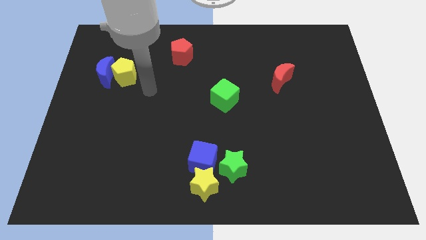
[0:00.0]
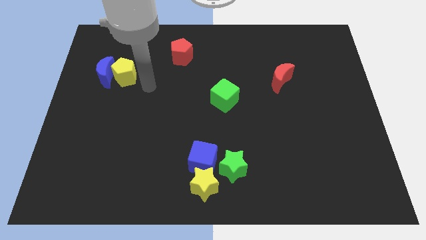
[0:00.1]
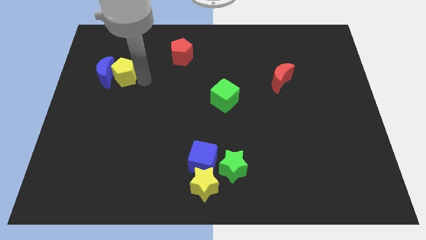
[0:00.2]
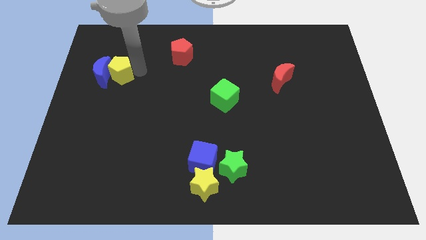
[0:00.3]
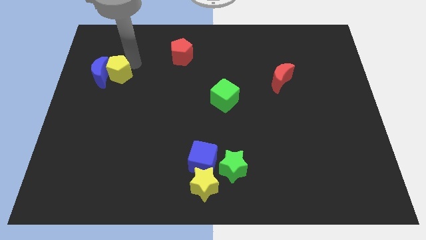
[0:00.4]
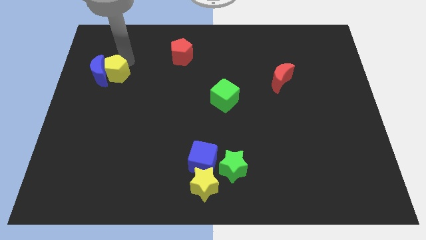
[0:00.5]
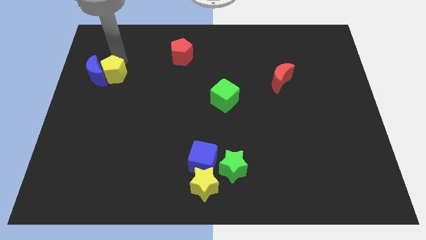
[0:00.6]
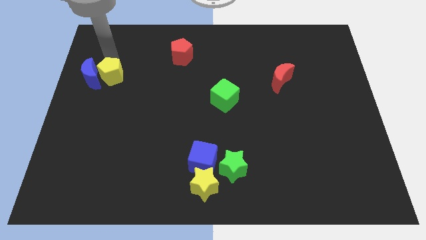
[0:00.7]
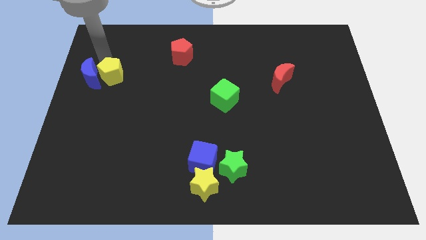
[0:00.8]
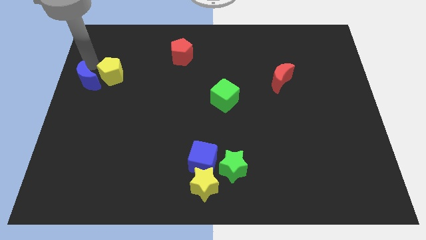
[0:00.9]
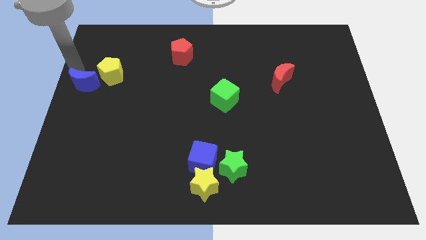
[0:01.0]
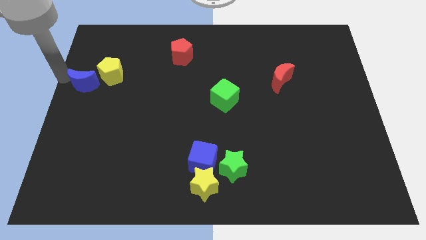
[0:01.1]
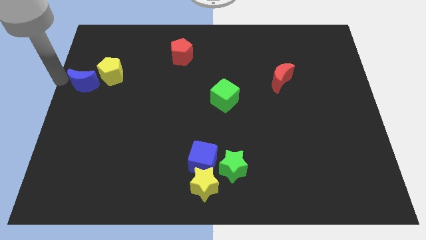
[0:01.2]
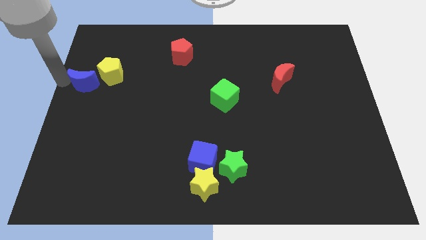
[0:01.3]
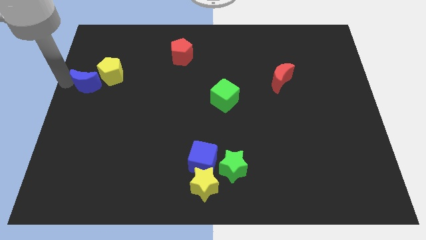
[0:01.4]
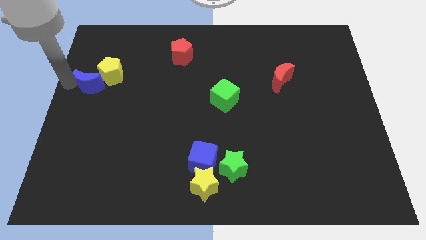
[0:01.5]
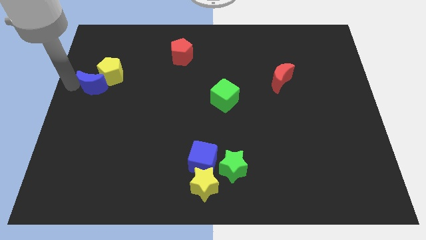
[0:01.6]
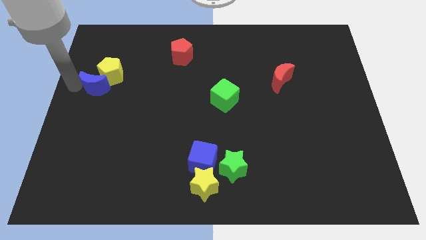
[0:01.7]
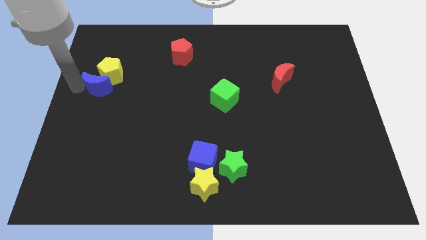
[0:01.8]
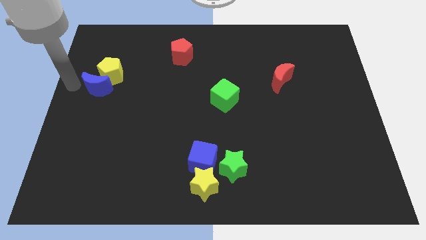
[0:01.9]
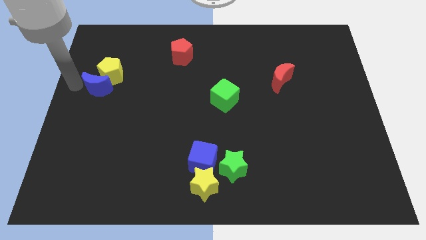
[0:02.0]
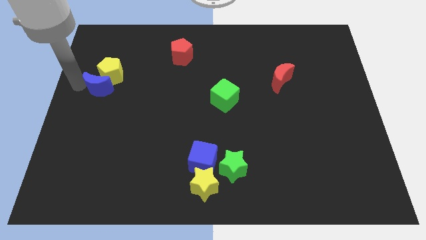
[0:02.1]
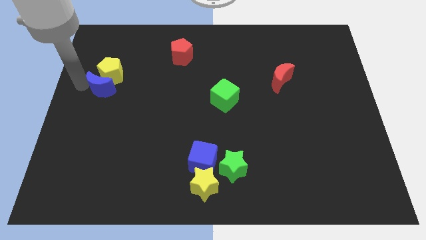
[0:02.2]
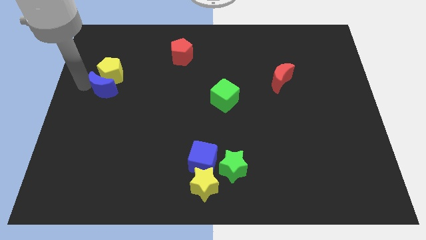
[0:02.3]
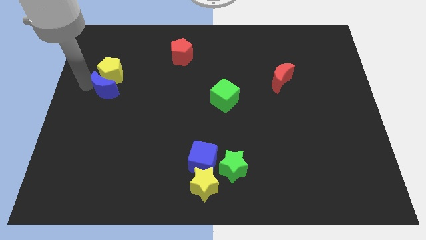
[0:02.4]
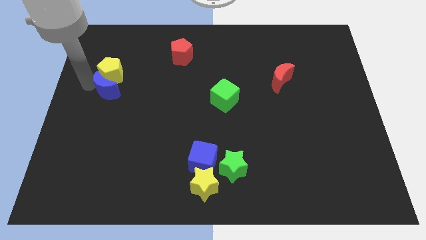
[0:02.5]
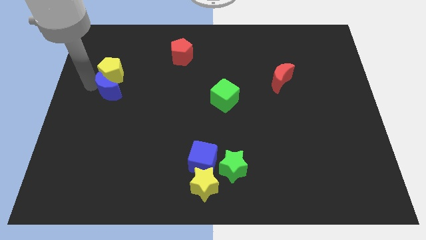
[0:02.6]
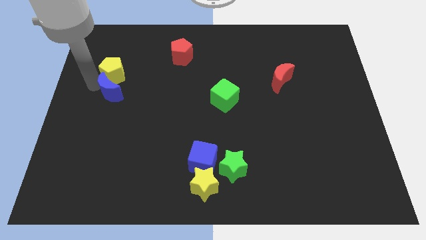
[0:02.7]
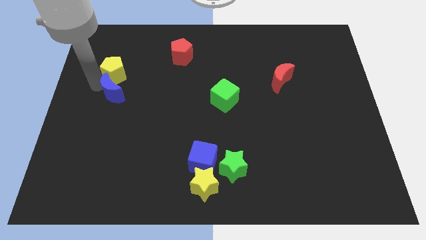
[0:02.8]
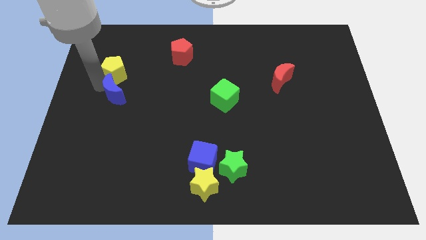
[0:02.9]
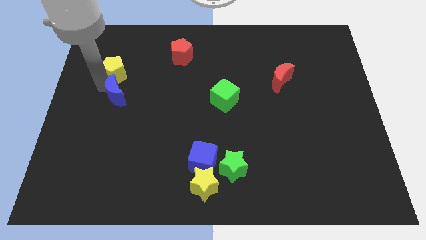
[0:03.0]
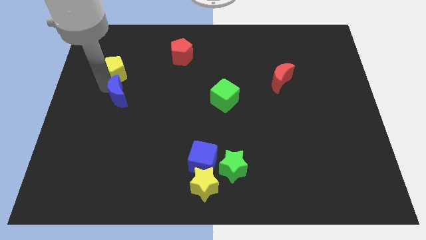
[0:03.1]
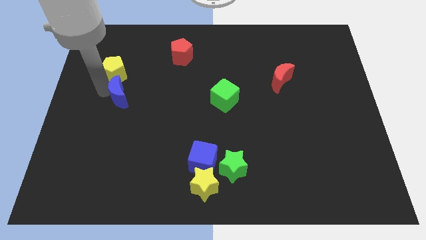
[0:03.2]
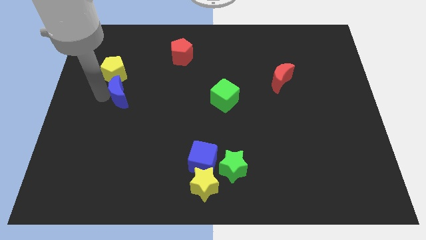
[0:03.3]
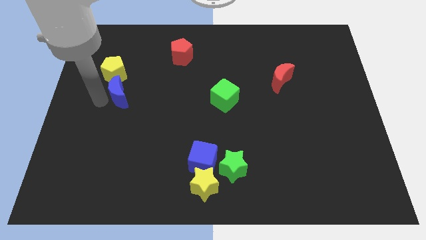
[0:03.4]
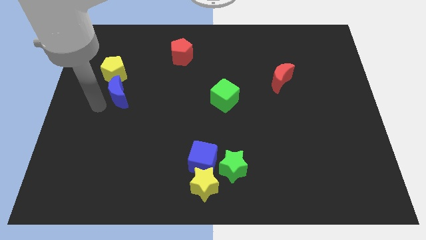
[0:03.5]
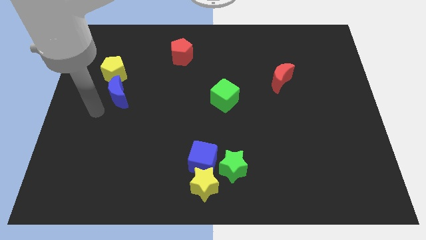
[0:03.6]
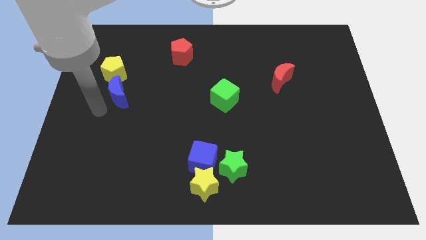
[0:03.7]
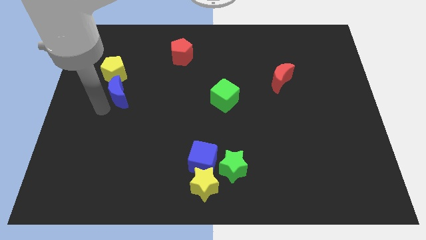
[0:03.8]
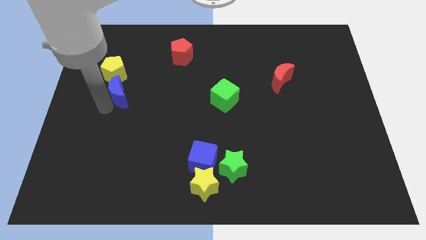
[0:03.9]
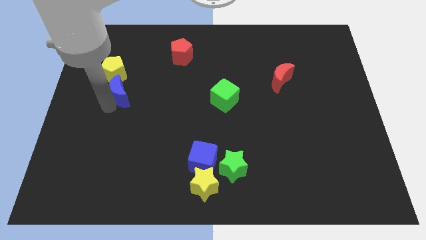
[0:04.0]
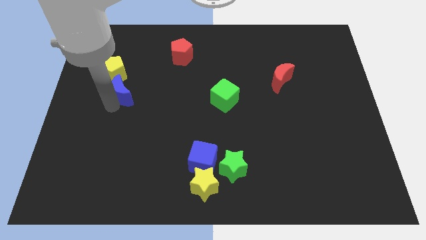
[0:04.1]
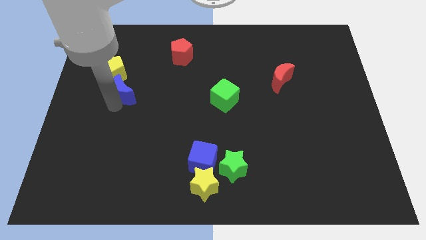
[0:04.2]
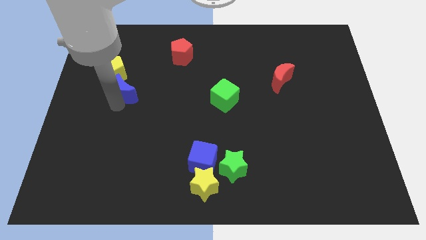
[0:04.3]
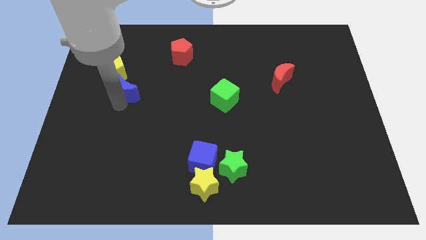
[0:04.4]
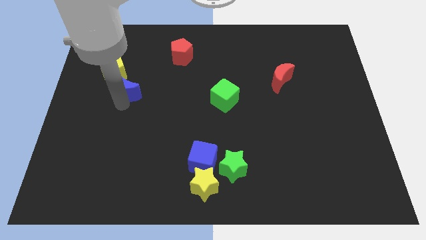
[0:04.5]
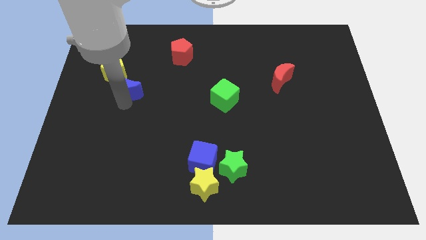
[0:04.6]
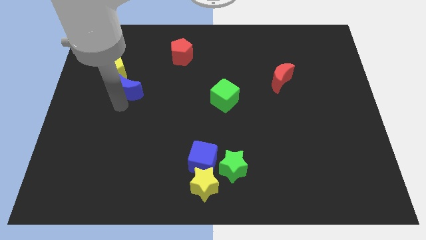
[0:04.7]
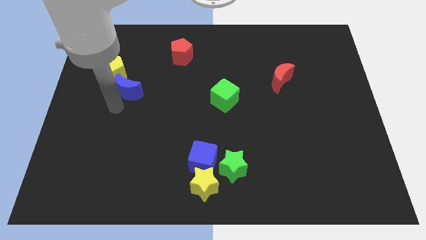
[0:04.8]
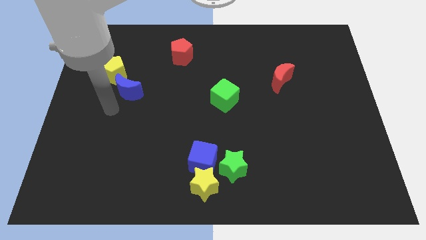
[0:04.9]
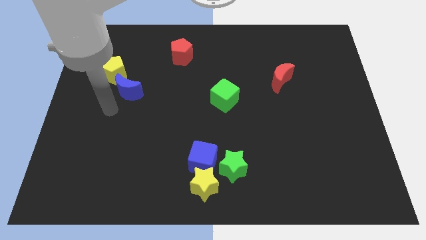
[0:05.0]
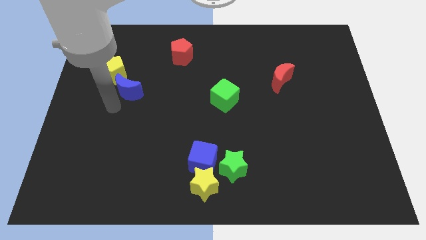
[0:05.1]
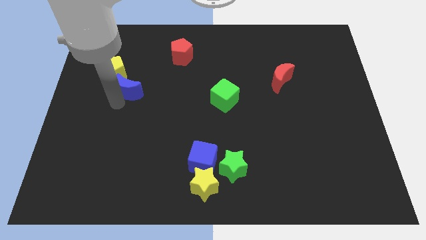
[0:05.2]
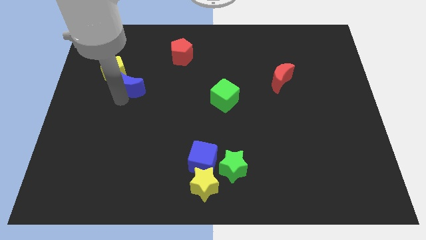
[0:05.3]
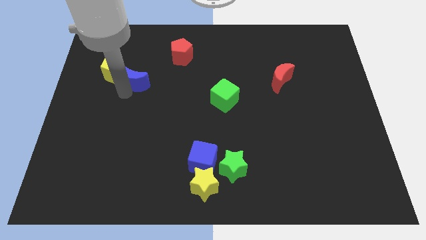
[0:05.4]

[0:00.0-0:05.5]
slightly move the blue moon right

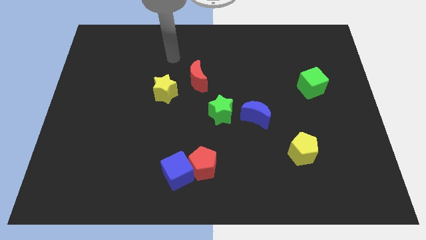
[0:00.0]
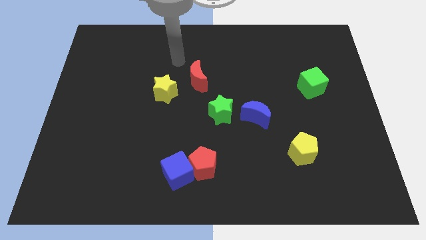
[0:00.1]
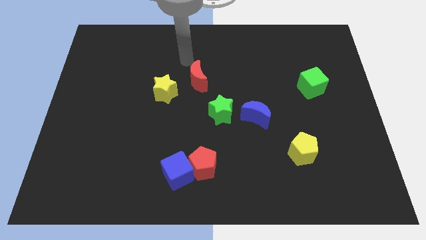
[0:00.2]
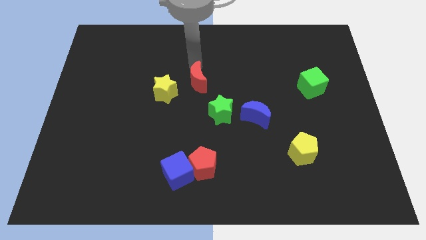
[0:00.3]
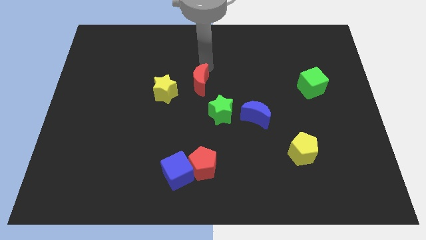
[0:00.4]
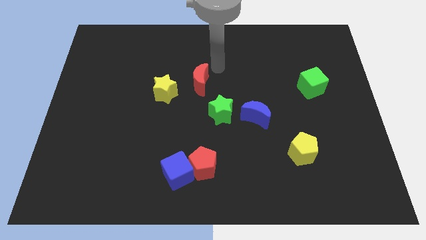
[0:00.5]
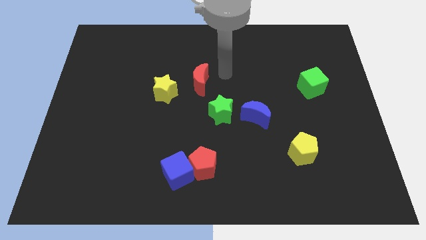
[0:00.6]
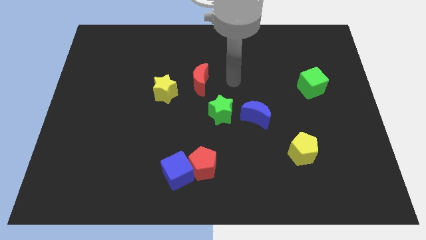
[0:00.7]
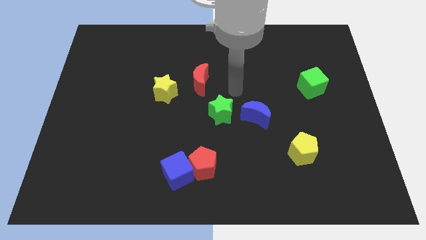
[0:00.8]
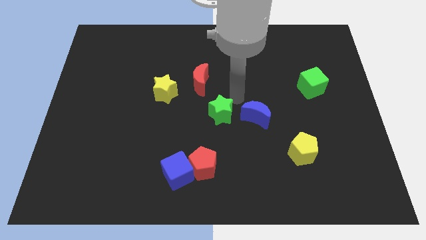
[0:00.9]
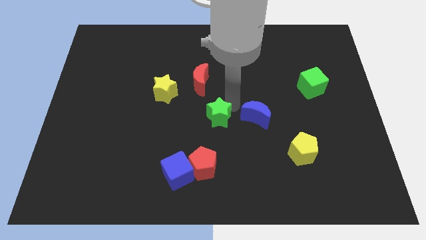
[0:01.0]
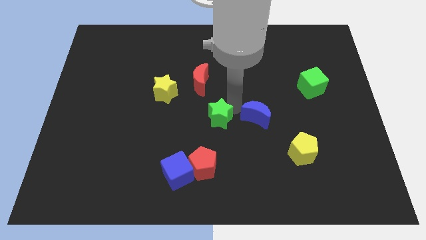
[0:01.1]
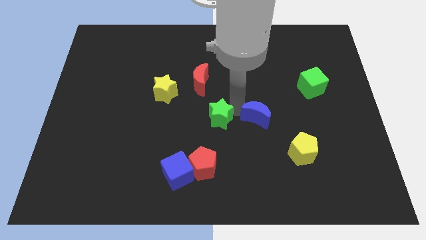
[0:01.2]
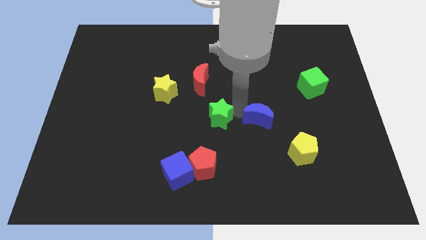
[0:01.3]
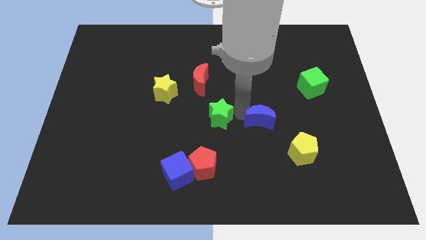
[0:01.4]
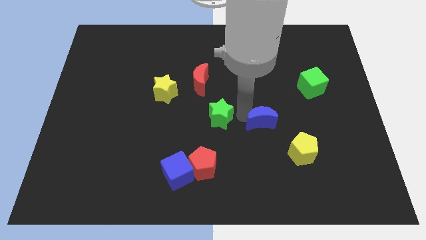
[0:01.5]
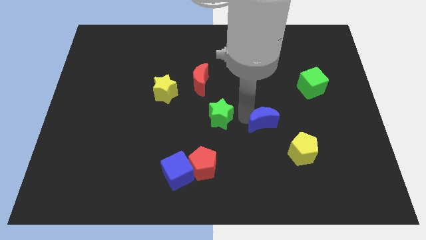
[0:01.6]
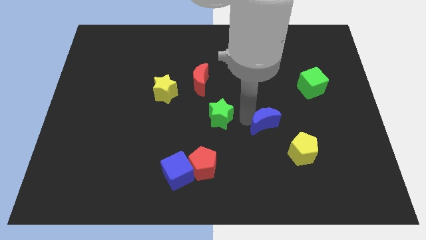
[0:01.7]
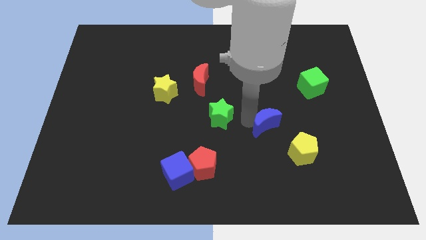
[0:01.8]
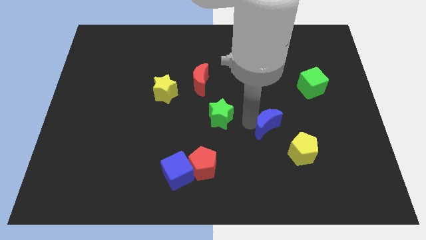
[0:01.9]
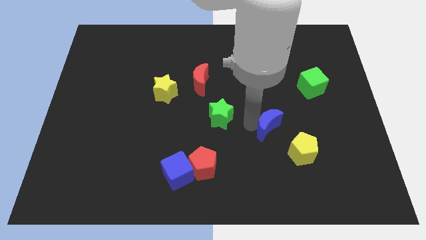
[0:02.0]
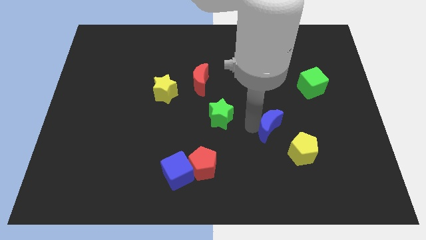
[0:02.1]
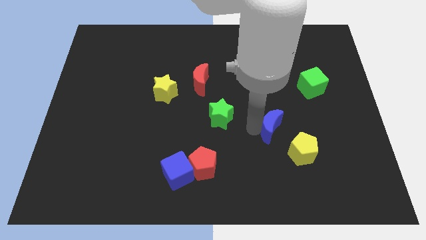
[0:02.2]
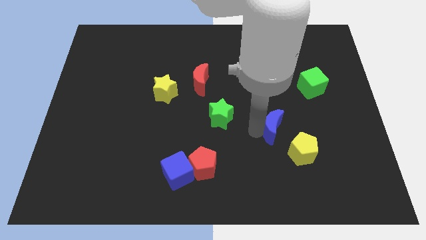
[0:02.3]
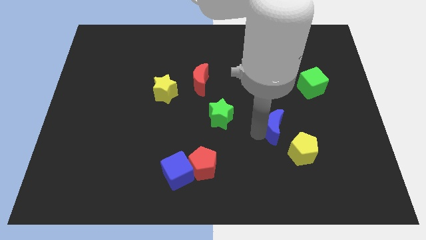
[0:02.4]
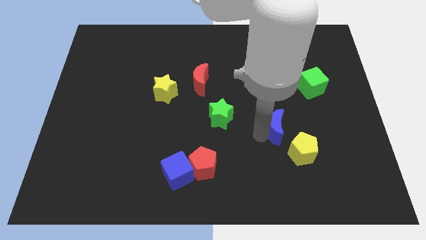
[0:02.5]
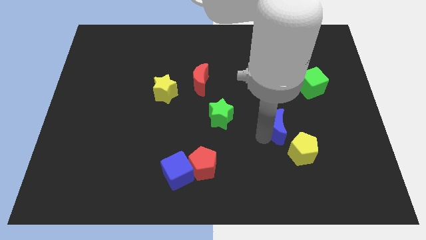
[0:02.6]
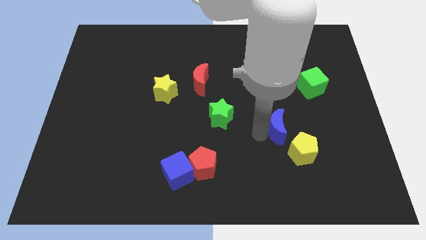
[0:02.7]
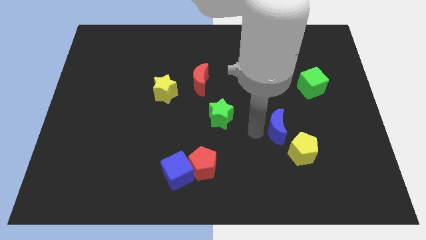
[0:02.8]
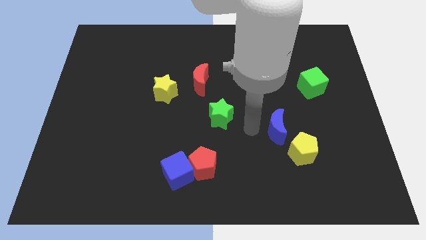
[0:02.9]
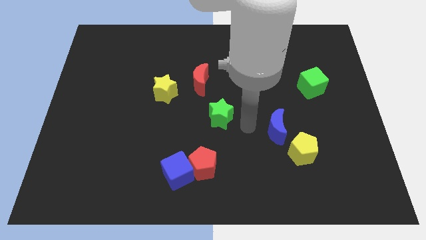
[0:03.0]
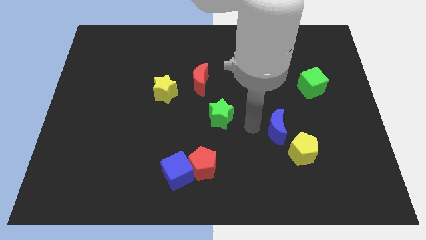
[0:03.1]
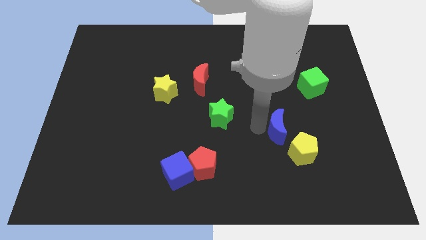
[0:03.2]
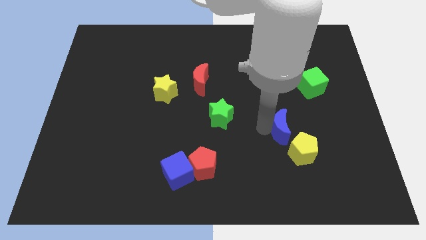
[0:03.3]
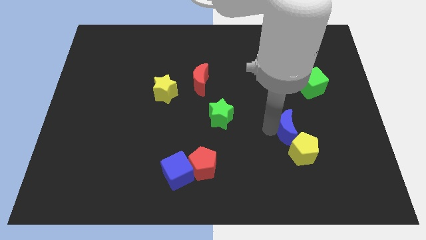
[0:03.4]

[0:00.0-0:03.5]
move the blue moon downwards and then right a little bit
